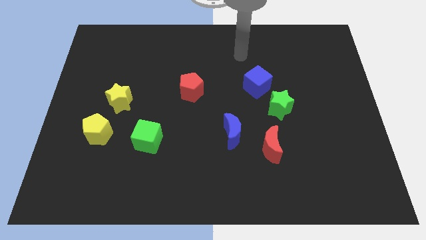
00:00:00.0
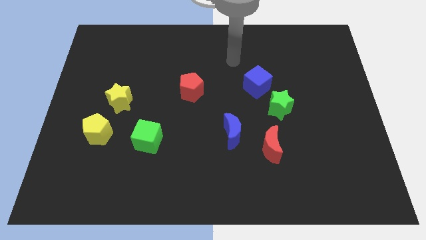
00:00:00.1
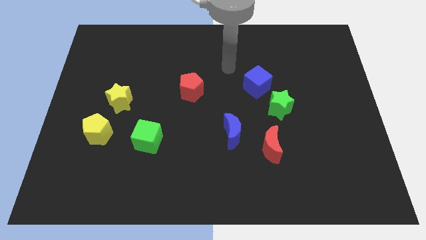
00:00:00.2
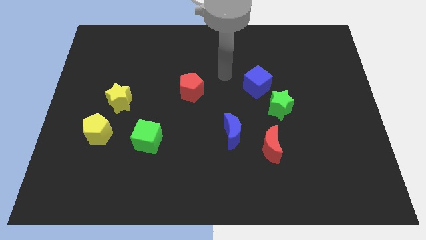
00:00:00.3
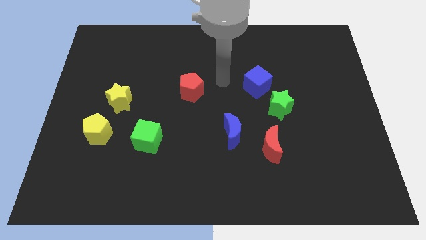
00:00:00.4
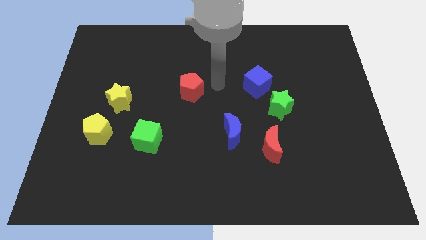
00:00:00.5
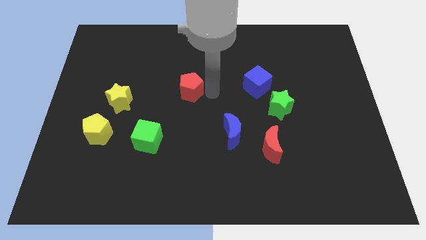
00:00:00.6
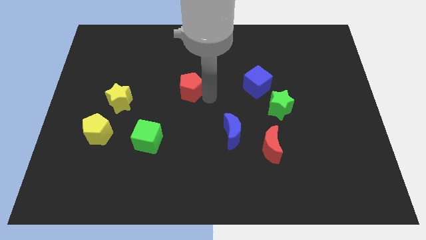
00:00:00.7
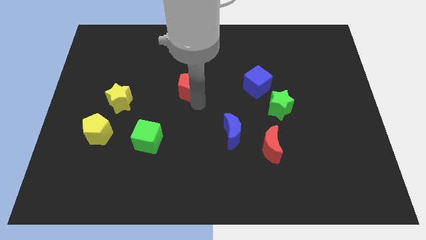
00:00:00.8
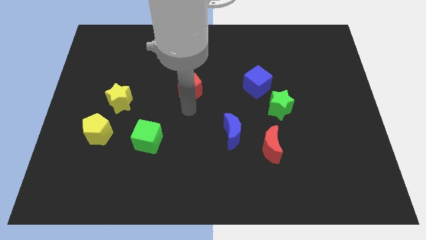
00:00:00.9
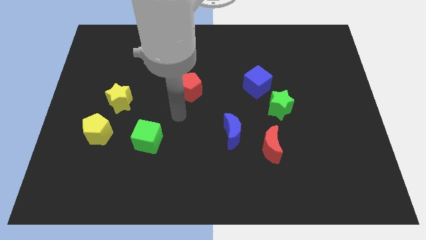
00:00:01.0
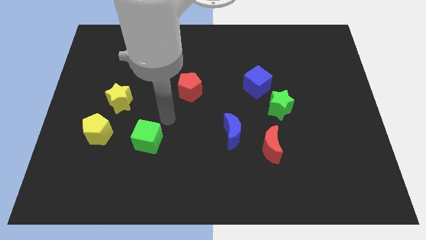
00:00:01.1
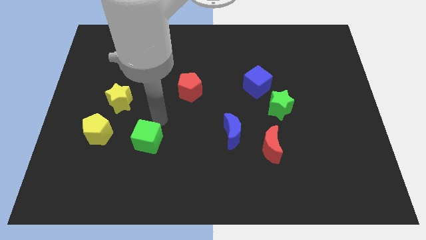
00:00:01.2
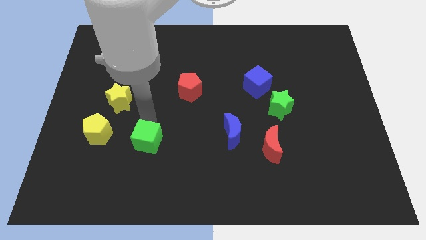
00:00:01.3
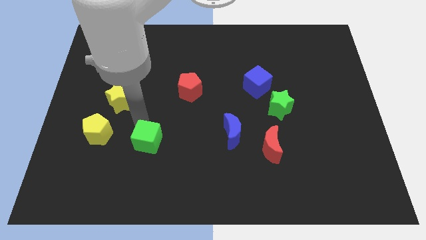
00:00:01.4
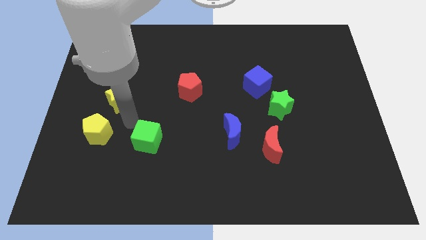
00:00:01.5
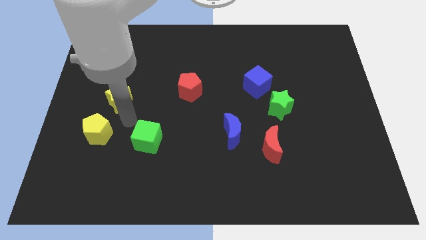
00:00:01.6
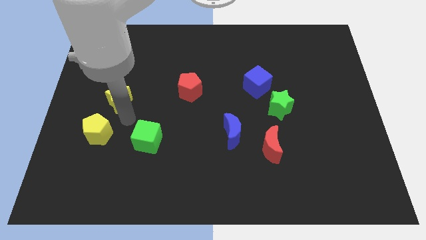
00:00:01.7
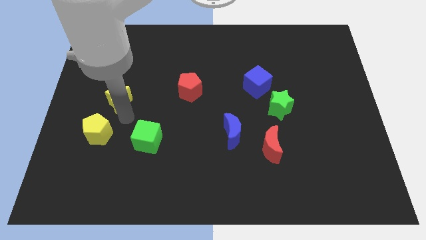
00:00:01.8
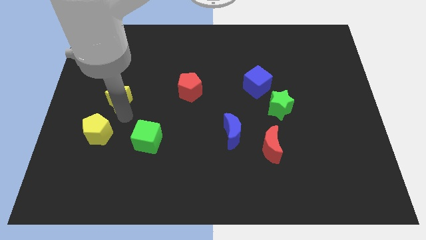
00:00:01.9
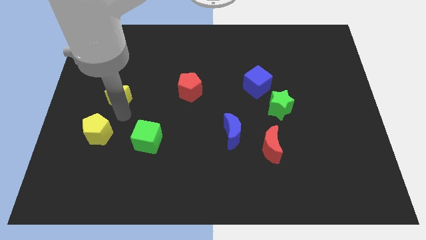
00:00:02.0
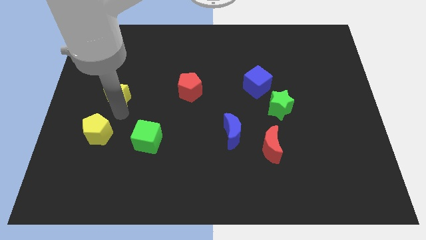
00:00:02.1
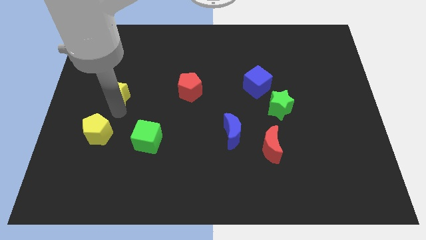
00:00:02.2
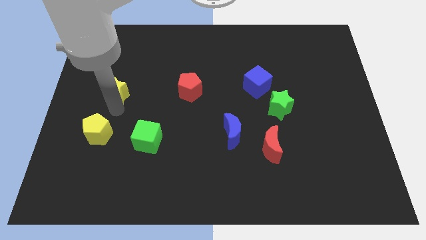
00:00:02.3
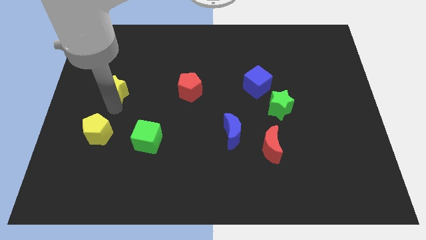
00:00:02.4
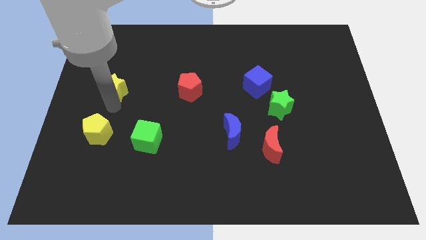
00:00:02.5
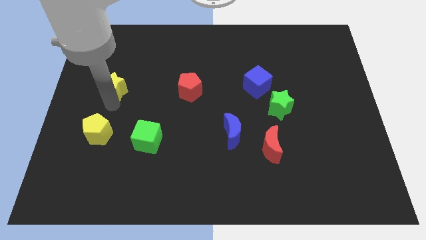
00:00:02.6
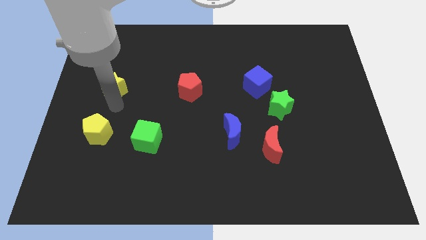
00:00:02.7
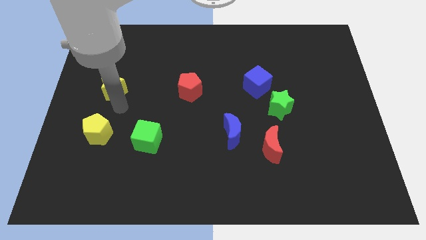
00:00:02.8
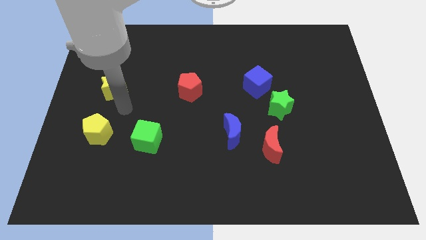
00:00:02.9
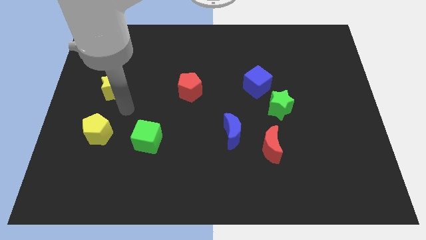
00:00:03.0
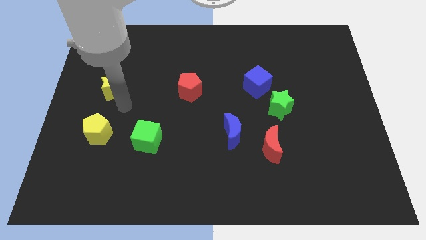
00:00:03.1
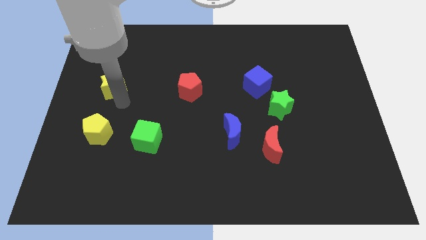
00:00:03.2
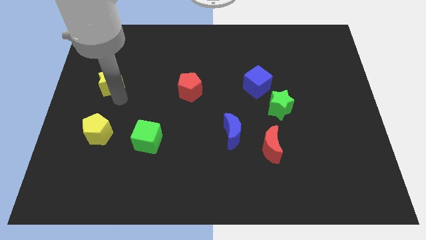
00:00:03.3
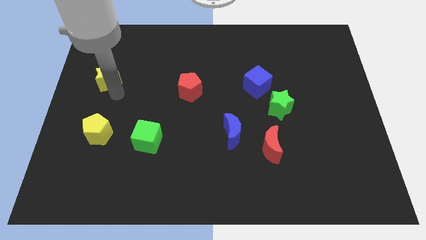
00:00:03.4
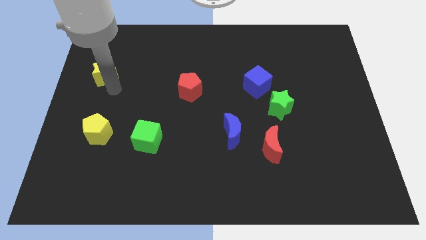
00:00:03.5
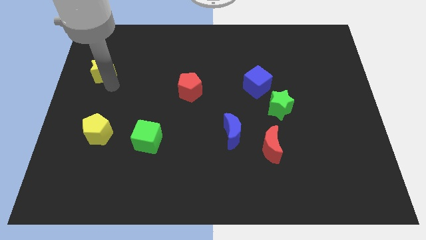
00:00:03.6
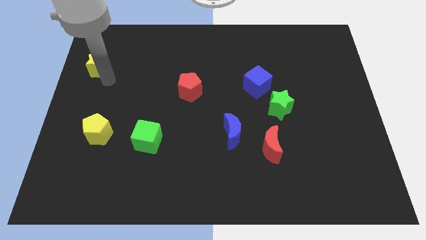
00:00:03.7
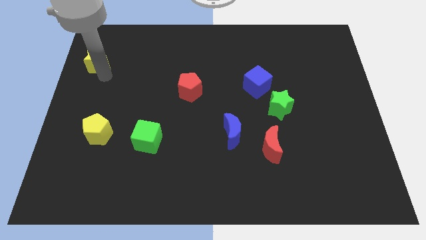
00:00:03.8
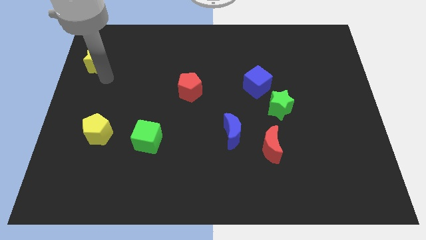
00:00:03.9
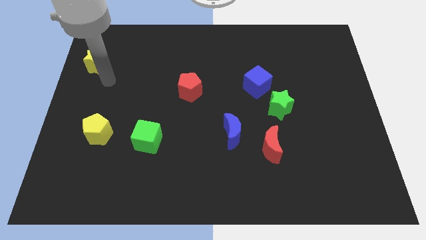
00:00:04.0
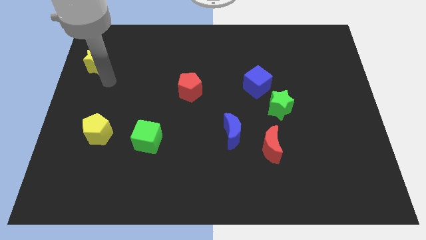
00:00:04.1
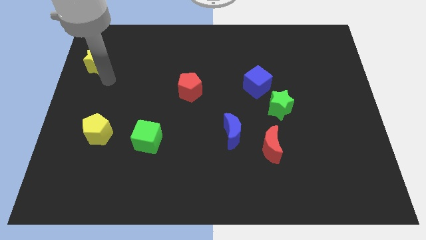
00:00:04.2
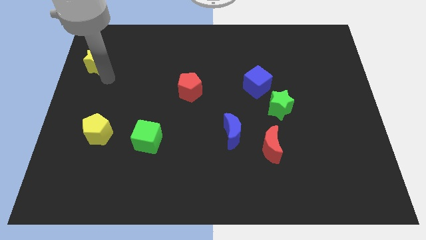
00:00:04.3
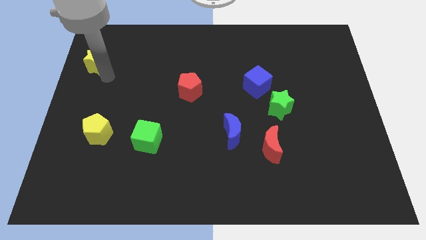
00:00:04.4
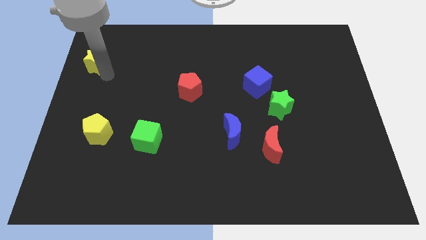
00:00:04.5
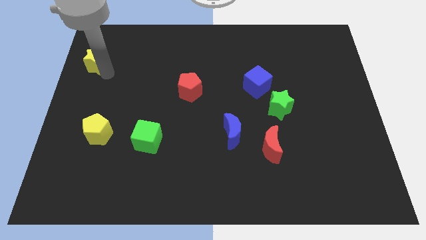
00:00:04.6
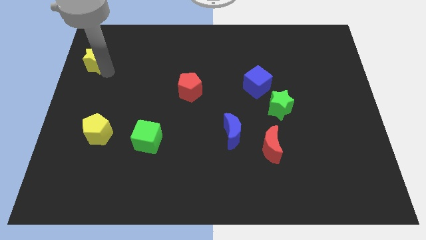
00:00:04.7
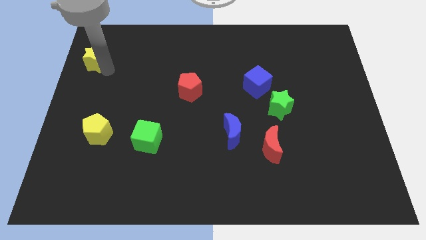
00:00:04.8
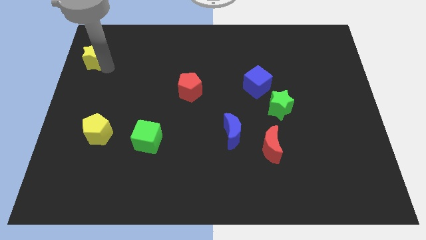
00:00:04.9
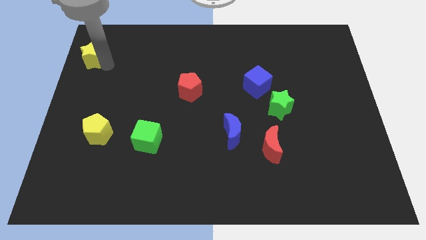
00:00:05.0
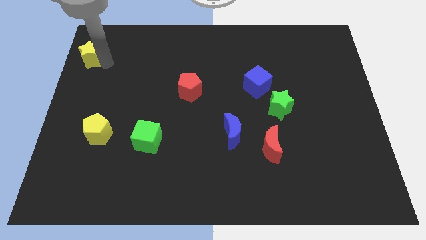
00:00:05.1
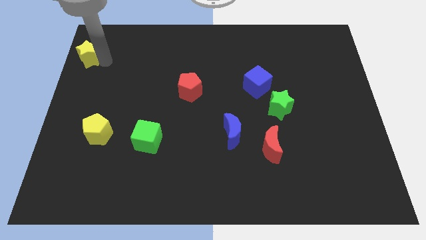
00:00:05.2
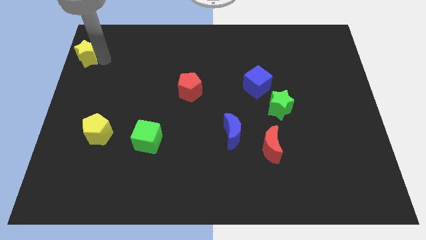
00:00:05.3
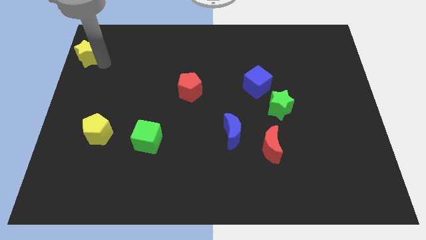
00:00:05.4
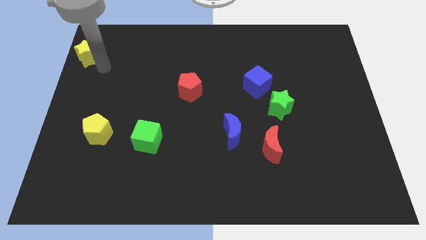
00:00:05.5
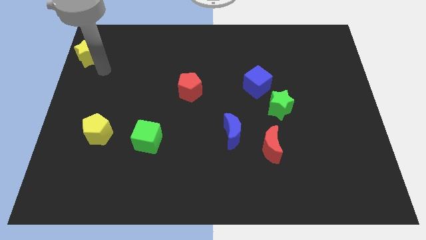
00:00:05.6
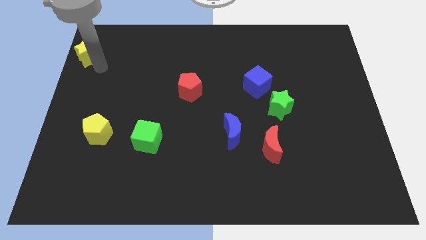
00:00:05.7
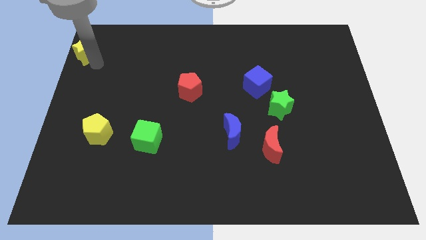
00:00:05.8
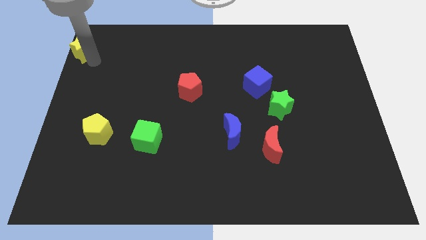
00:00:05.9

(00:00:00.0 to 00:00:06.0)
push the yellow star to the top left of the board

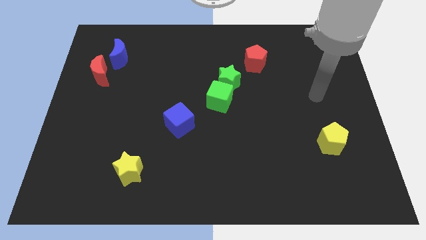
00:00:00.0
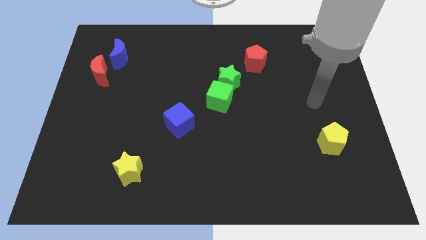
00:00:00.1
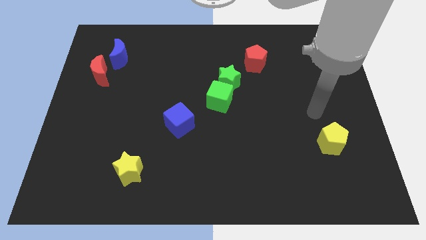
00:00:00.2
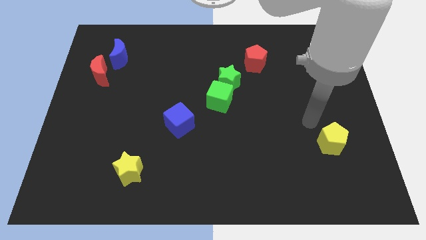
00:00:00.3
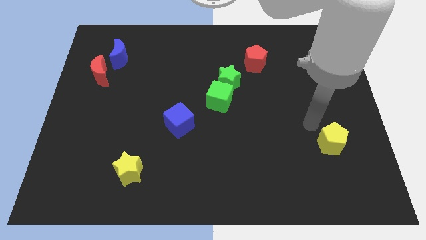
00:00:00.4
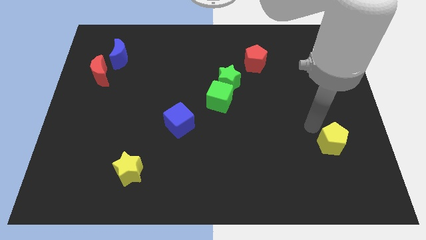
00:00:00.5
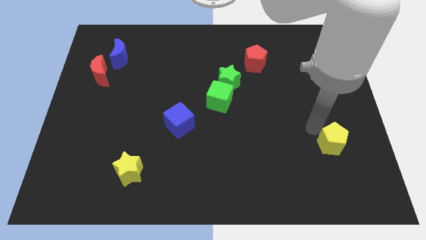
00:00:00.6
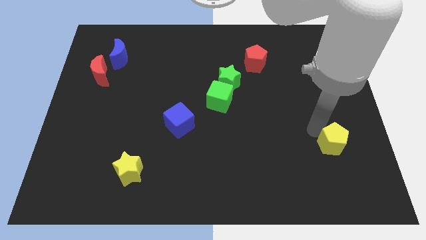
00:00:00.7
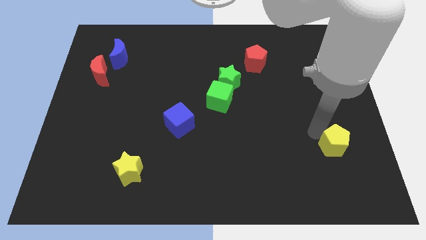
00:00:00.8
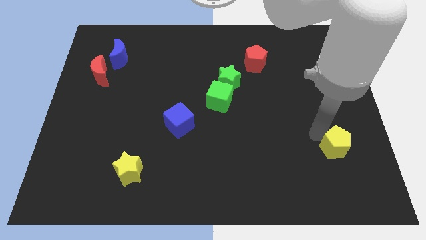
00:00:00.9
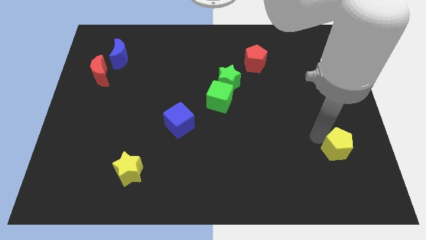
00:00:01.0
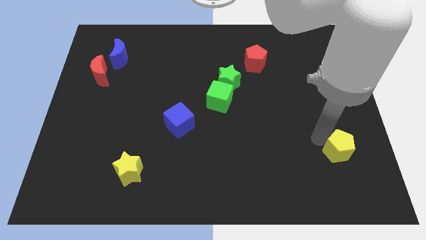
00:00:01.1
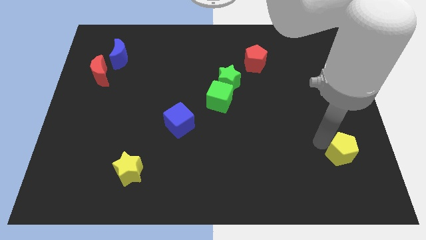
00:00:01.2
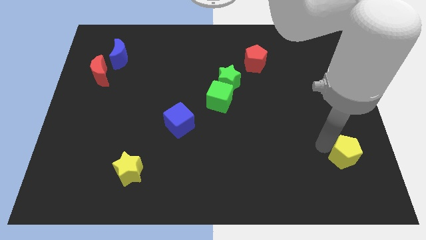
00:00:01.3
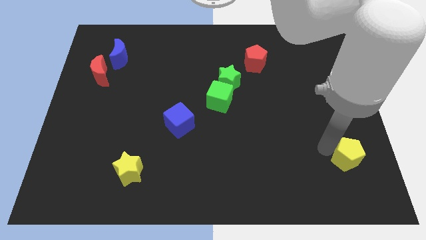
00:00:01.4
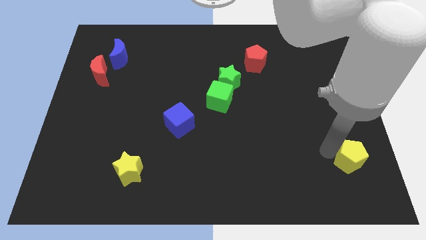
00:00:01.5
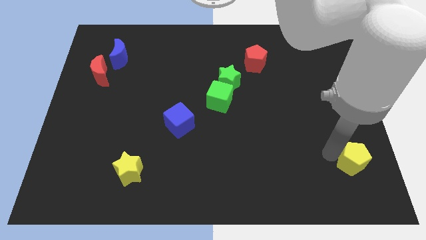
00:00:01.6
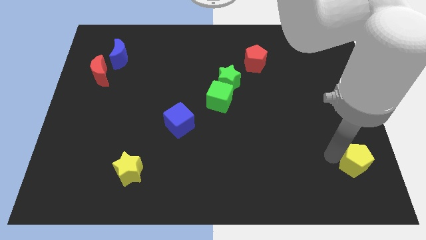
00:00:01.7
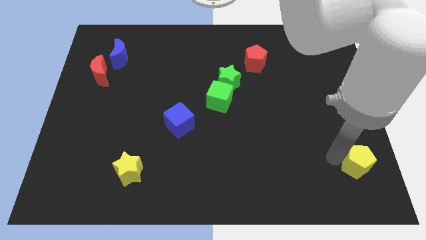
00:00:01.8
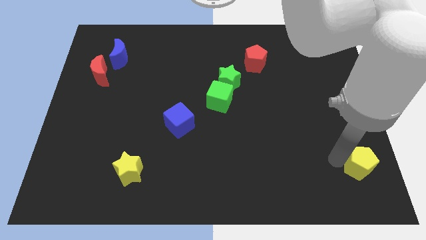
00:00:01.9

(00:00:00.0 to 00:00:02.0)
push the yellow pentagon to the bottom right corner
